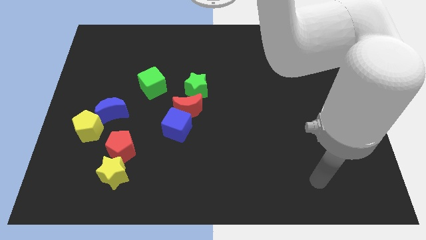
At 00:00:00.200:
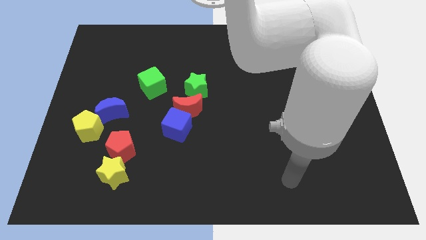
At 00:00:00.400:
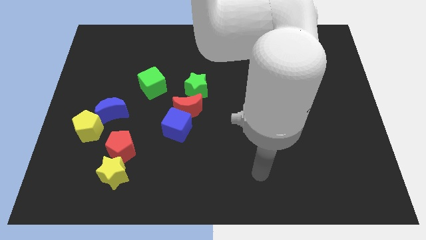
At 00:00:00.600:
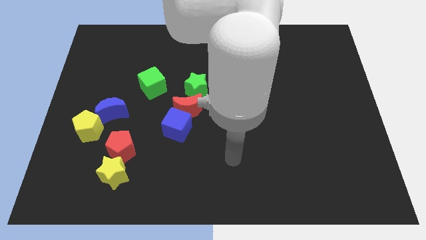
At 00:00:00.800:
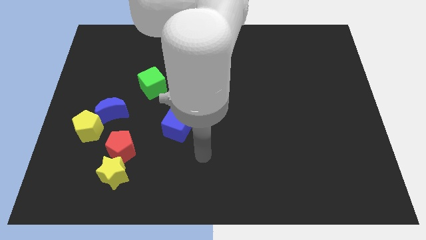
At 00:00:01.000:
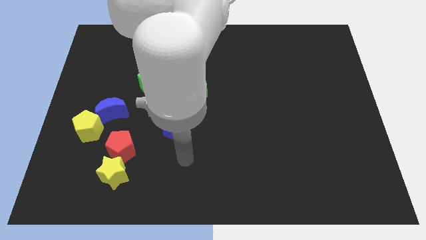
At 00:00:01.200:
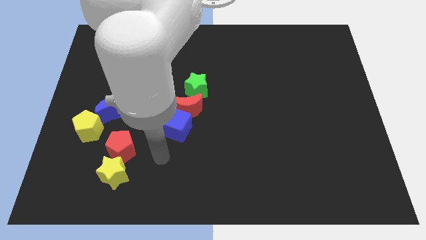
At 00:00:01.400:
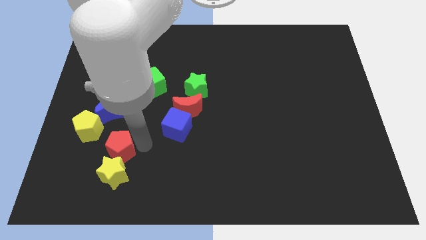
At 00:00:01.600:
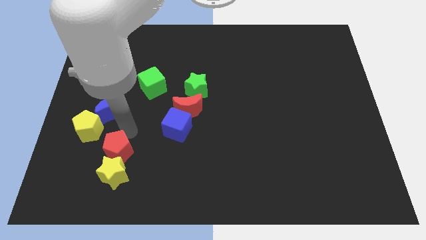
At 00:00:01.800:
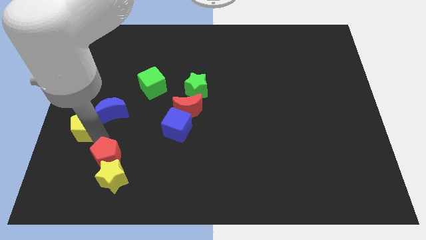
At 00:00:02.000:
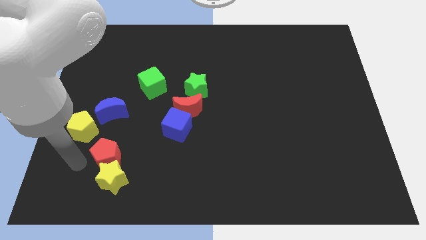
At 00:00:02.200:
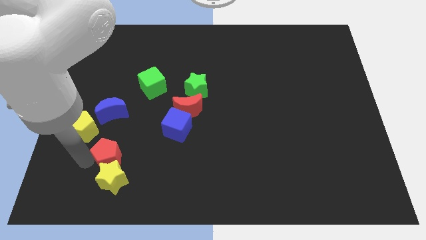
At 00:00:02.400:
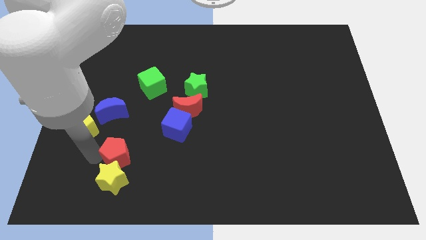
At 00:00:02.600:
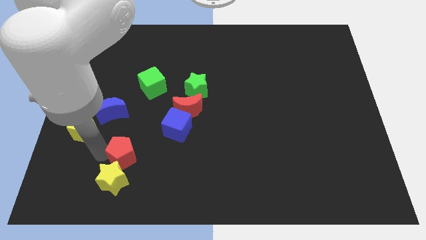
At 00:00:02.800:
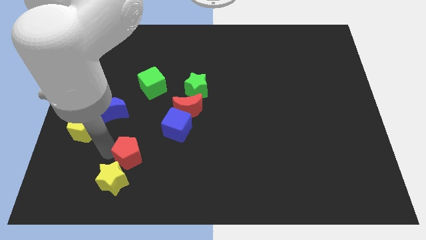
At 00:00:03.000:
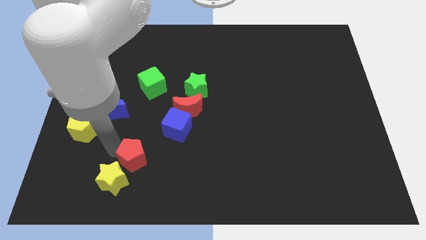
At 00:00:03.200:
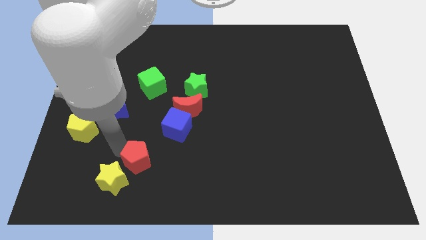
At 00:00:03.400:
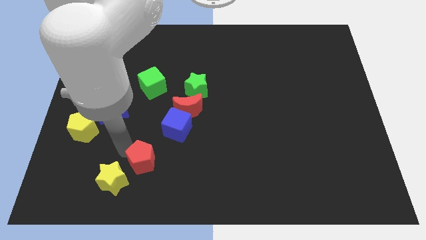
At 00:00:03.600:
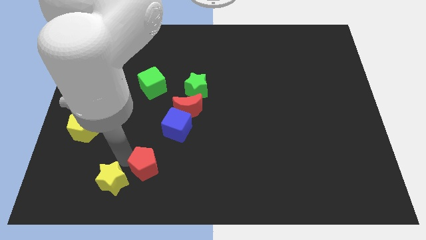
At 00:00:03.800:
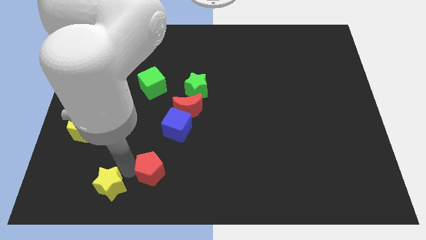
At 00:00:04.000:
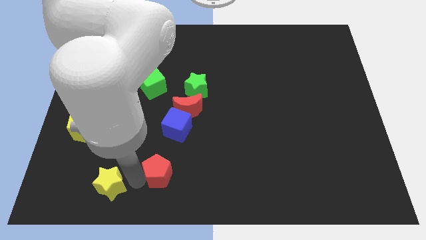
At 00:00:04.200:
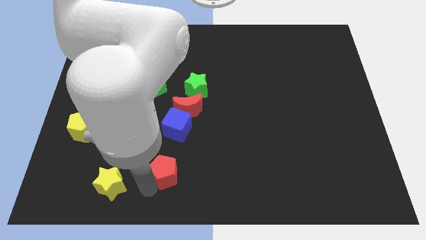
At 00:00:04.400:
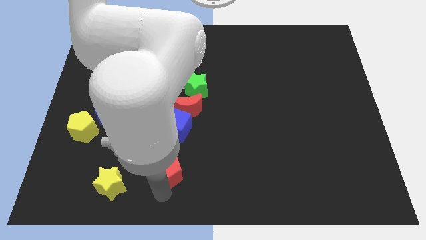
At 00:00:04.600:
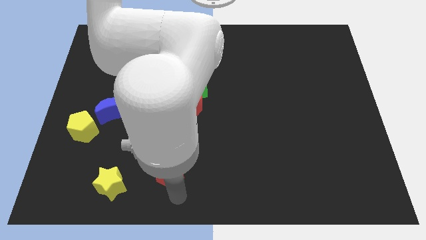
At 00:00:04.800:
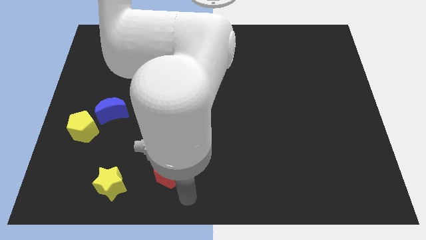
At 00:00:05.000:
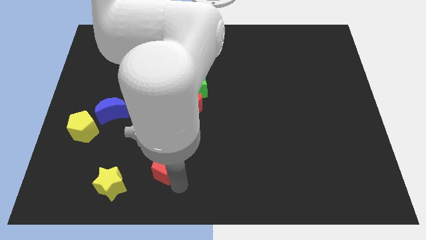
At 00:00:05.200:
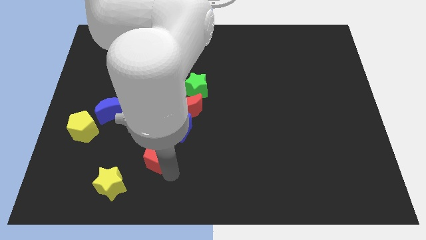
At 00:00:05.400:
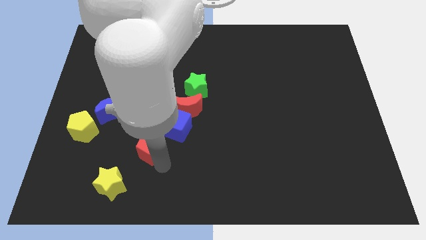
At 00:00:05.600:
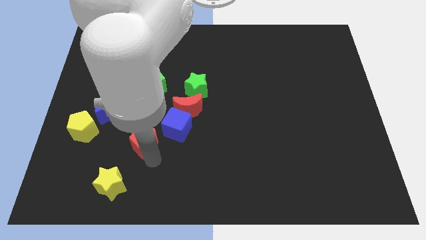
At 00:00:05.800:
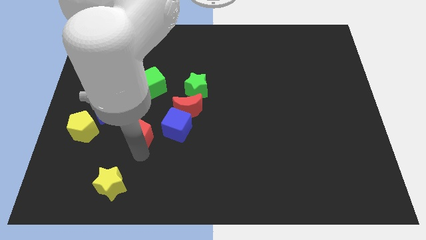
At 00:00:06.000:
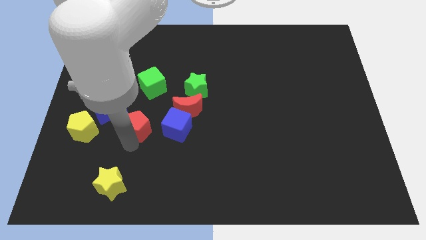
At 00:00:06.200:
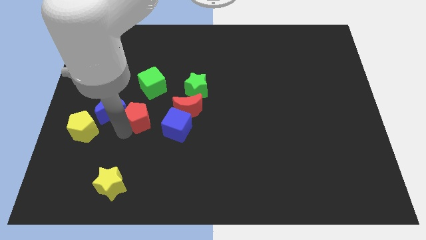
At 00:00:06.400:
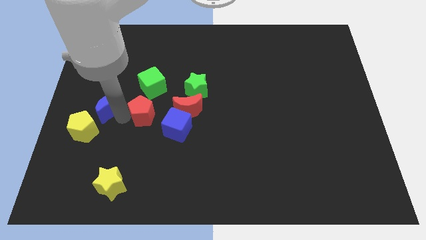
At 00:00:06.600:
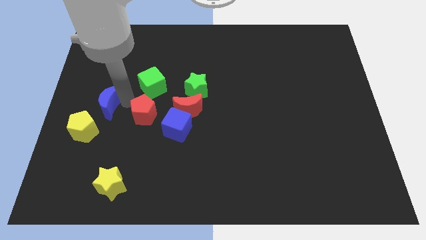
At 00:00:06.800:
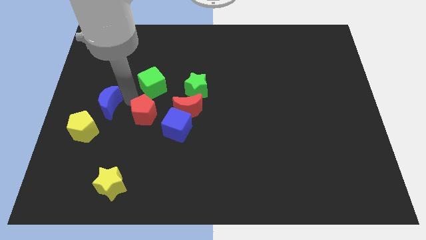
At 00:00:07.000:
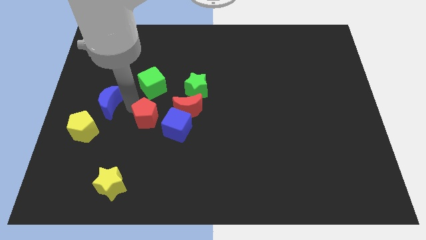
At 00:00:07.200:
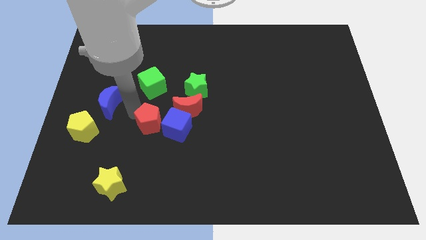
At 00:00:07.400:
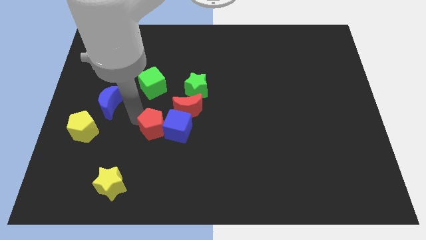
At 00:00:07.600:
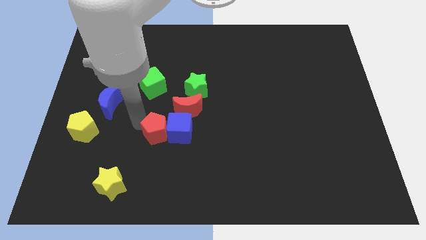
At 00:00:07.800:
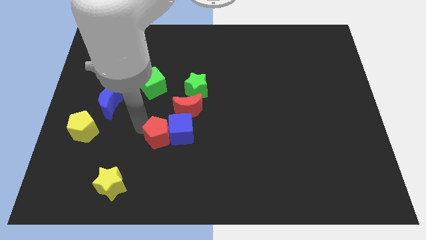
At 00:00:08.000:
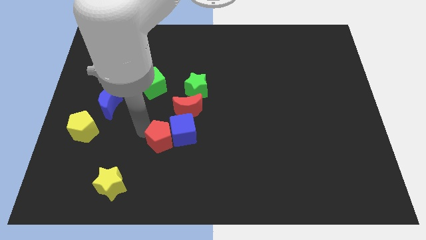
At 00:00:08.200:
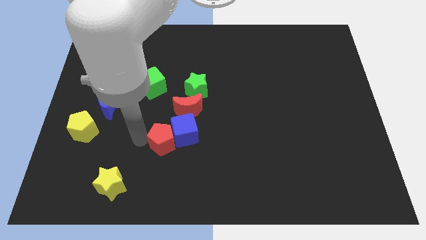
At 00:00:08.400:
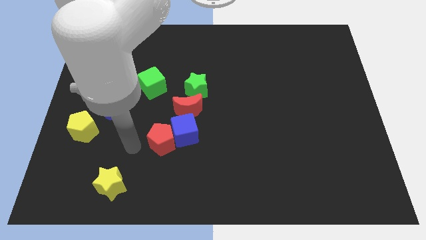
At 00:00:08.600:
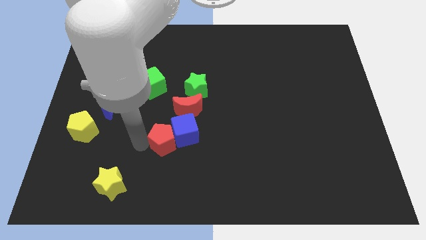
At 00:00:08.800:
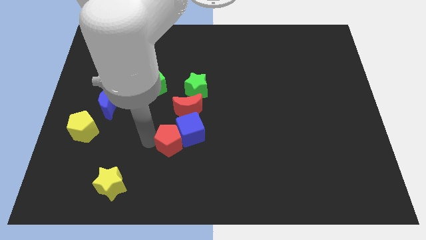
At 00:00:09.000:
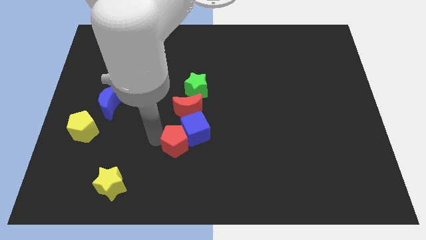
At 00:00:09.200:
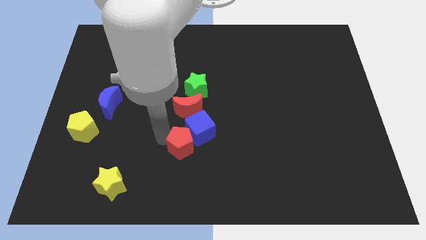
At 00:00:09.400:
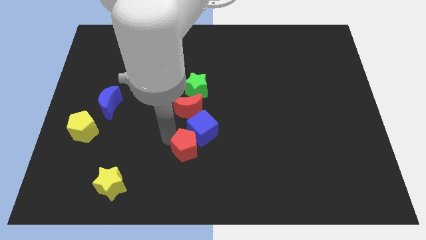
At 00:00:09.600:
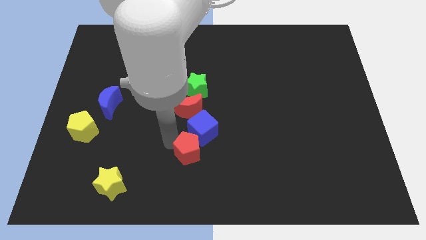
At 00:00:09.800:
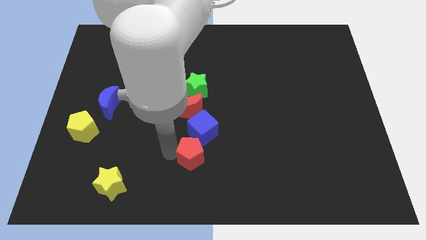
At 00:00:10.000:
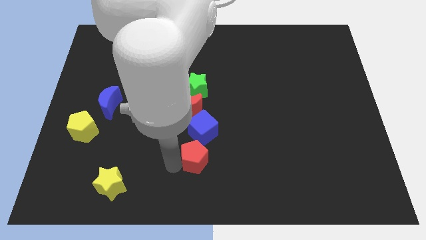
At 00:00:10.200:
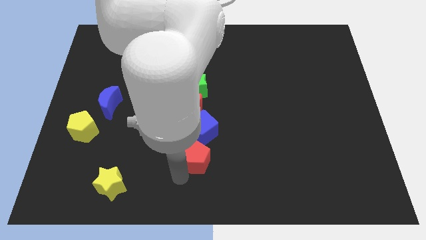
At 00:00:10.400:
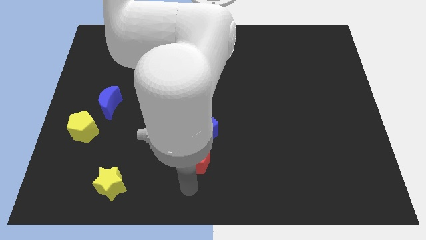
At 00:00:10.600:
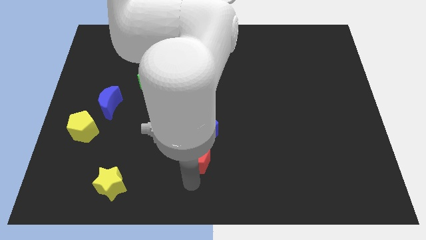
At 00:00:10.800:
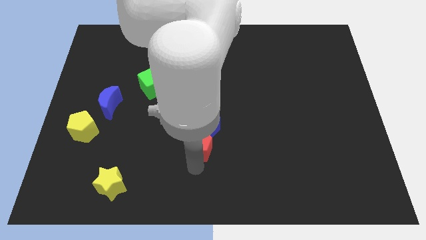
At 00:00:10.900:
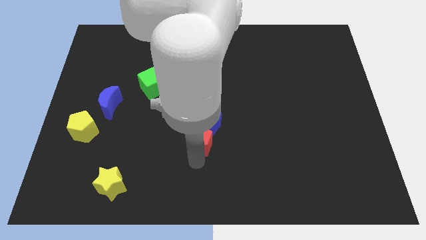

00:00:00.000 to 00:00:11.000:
move the red pentagon to the center
